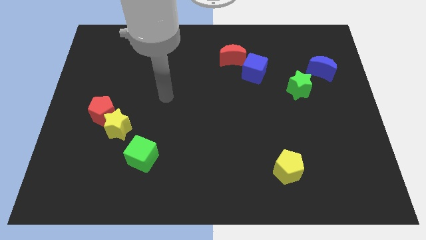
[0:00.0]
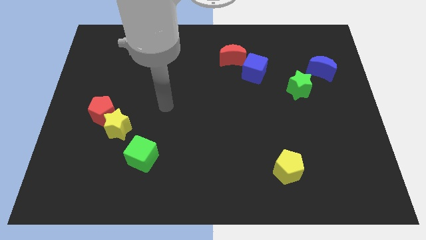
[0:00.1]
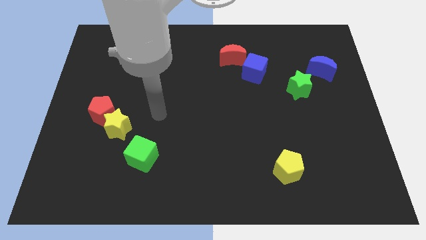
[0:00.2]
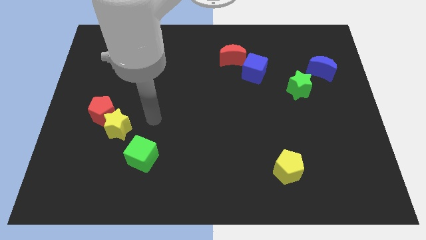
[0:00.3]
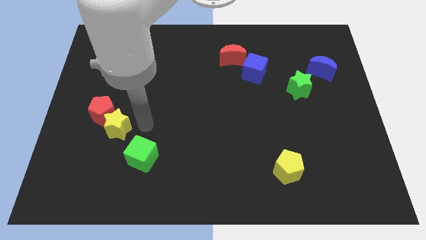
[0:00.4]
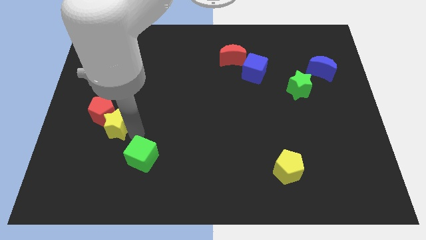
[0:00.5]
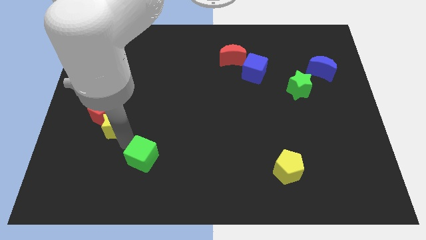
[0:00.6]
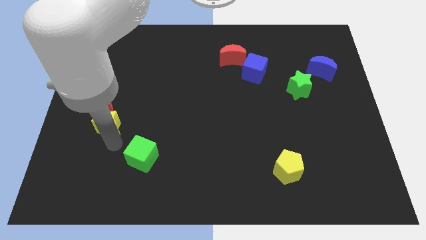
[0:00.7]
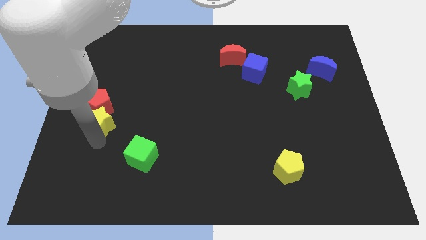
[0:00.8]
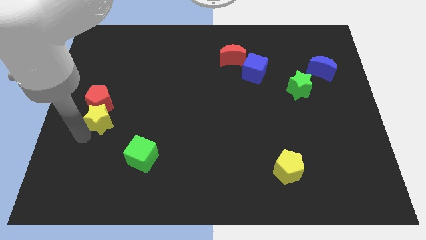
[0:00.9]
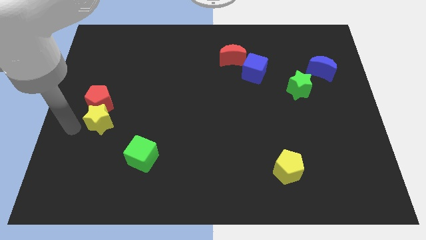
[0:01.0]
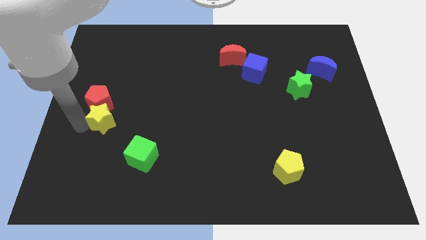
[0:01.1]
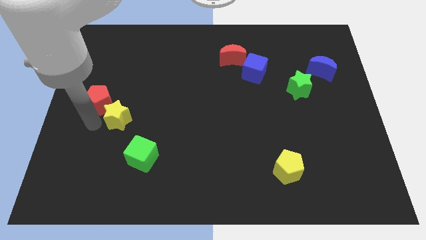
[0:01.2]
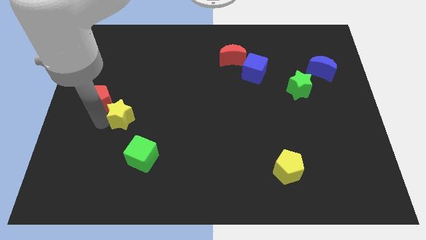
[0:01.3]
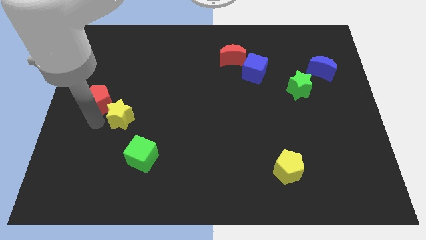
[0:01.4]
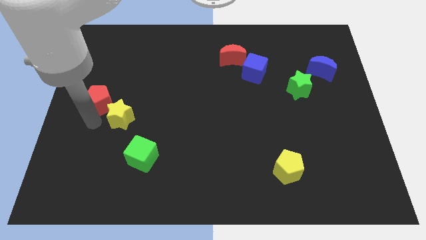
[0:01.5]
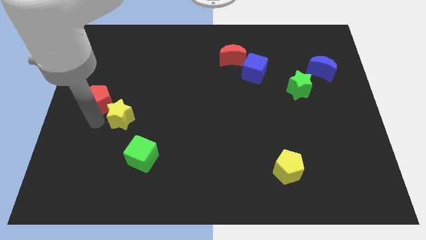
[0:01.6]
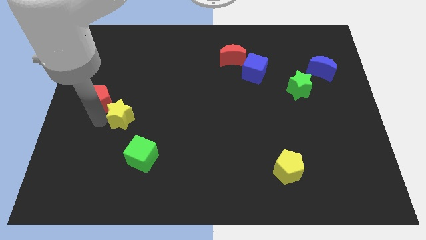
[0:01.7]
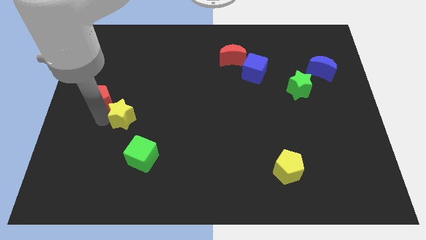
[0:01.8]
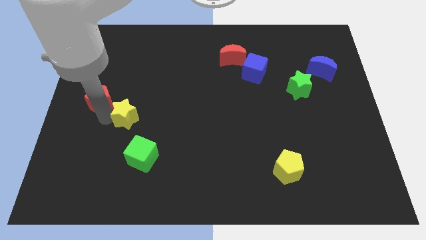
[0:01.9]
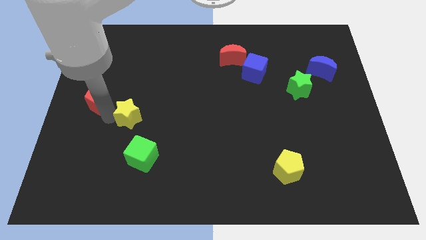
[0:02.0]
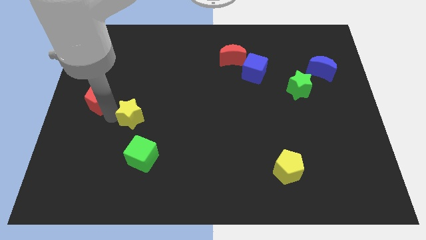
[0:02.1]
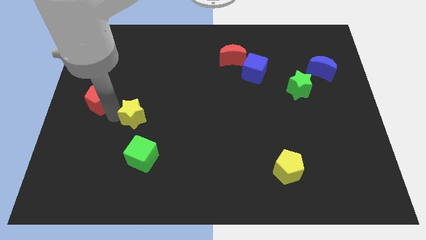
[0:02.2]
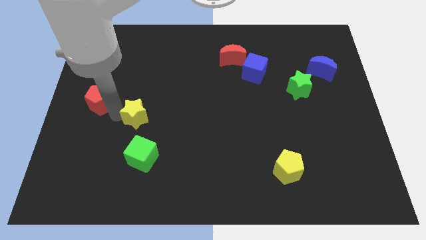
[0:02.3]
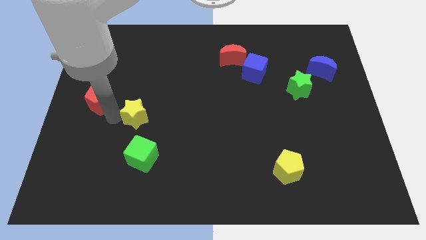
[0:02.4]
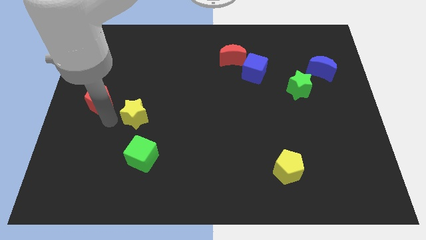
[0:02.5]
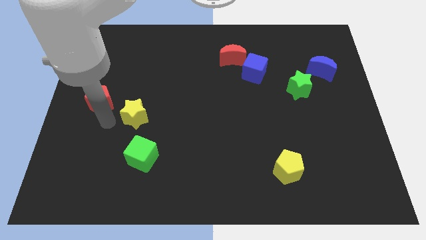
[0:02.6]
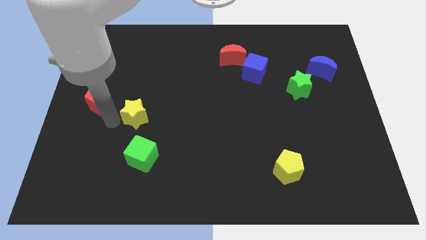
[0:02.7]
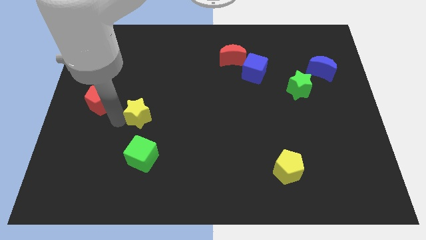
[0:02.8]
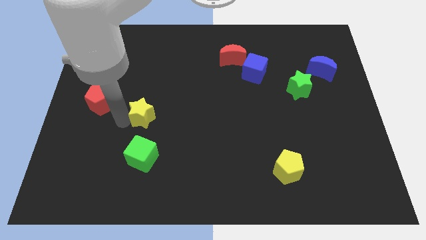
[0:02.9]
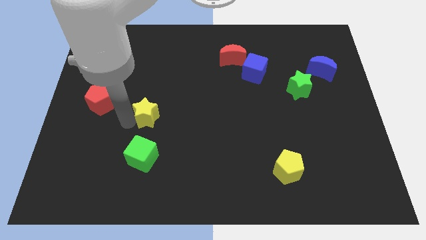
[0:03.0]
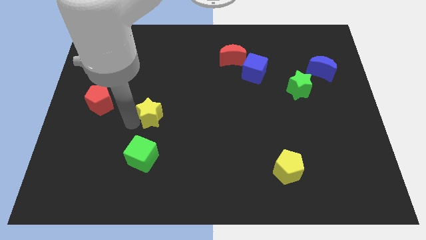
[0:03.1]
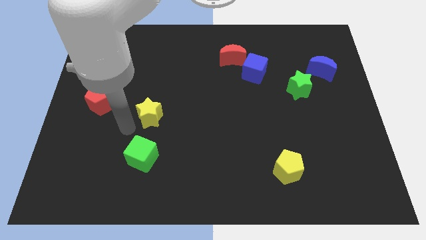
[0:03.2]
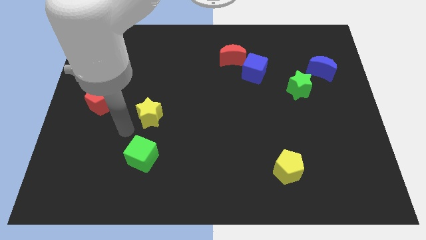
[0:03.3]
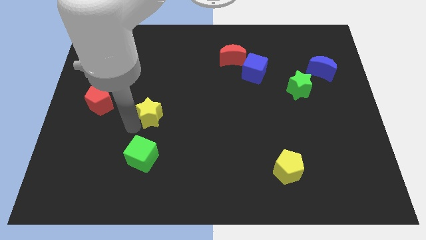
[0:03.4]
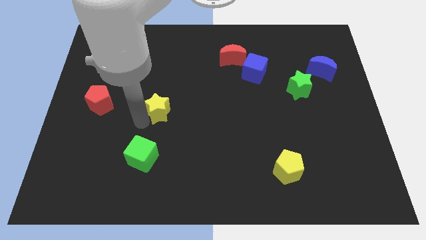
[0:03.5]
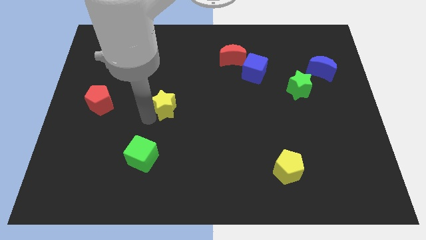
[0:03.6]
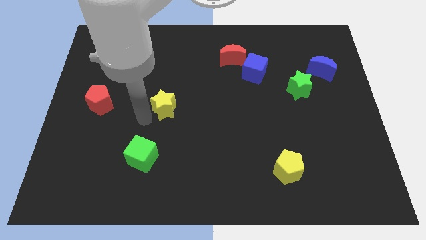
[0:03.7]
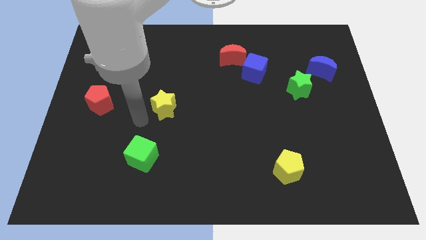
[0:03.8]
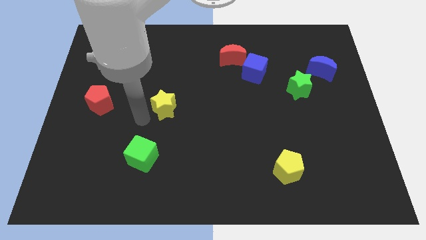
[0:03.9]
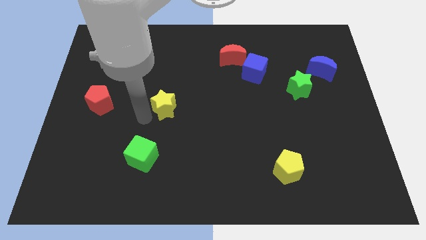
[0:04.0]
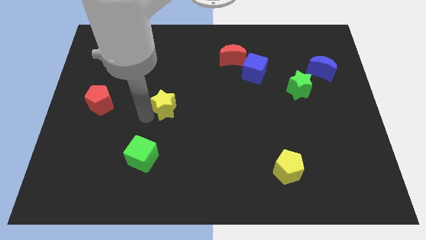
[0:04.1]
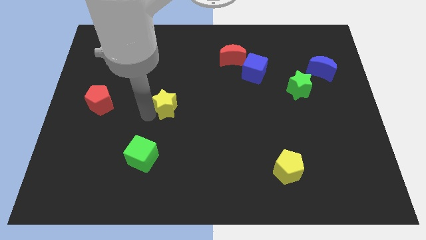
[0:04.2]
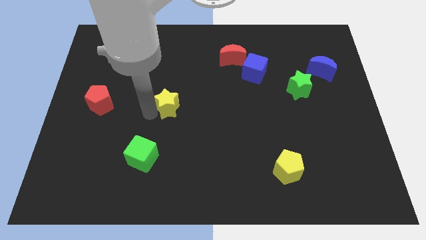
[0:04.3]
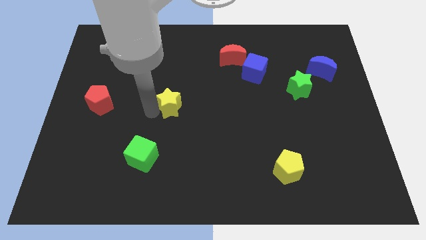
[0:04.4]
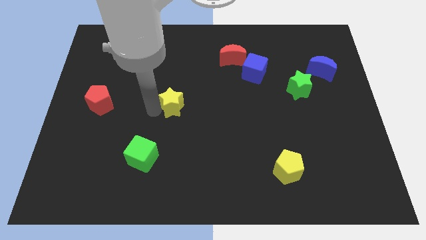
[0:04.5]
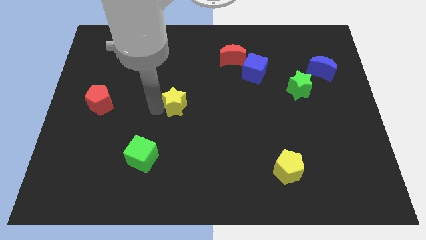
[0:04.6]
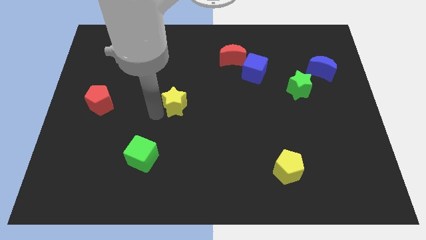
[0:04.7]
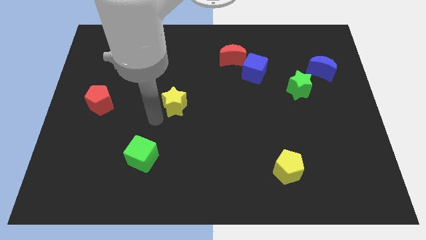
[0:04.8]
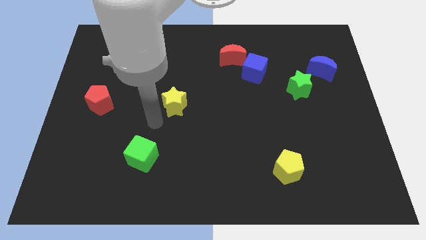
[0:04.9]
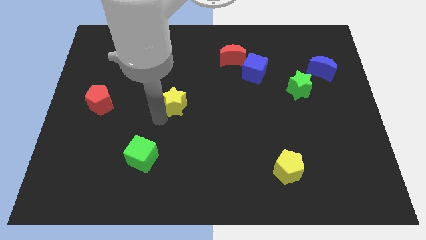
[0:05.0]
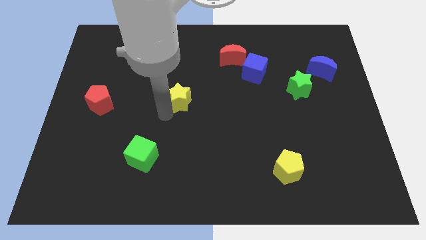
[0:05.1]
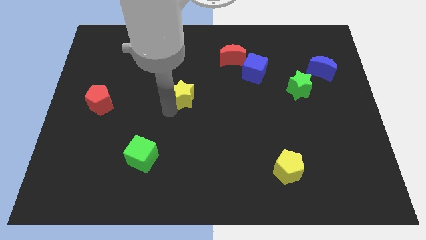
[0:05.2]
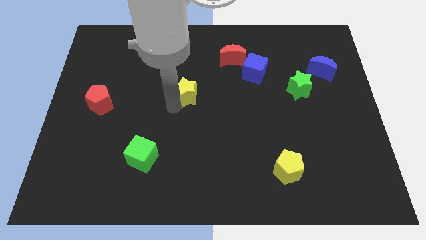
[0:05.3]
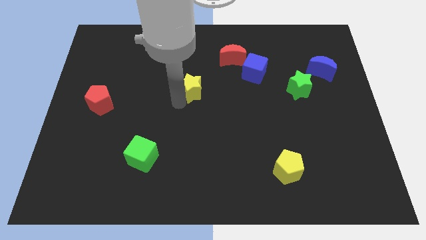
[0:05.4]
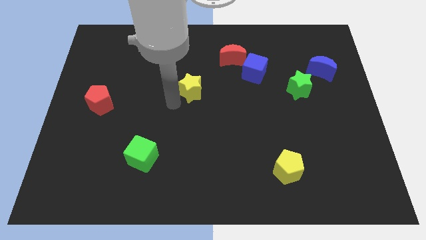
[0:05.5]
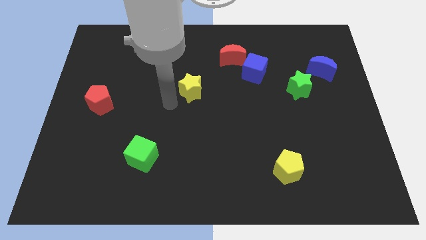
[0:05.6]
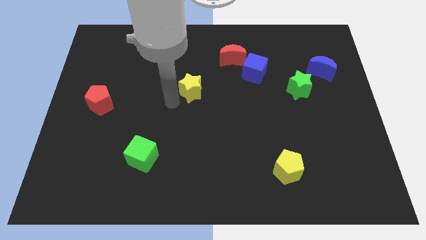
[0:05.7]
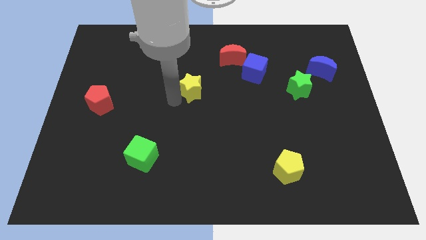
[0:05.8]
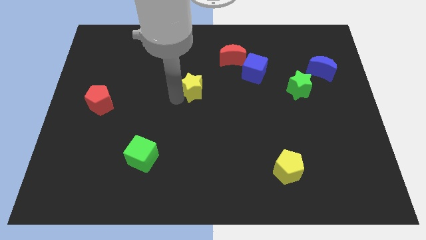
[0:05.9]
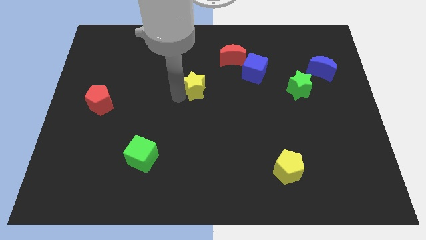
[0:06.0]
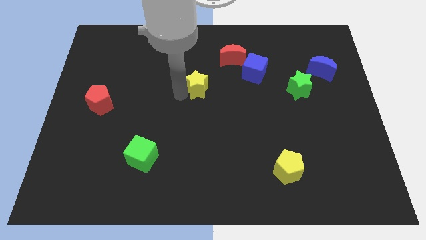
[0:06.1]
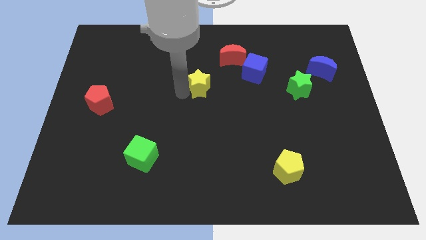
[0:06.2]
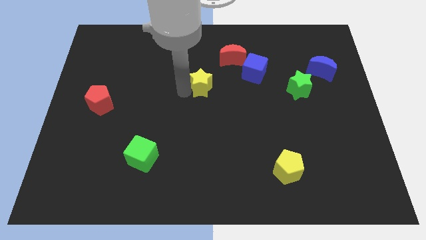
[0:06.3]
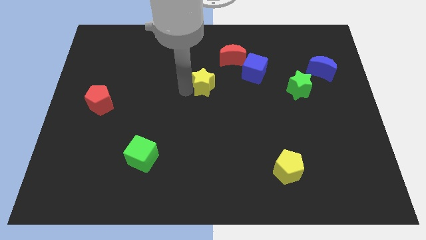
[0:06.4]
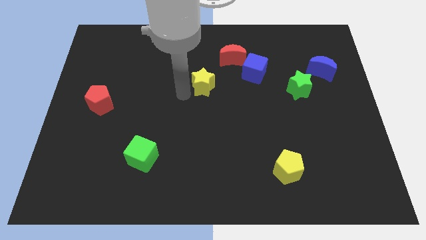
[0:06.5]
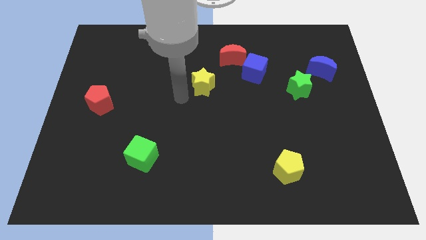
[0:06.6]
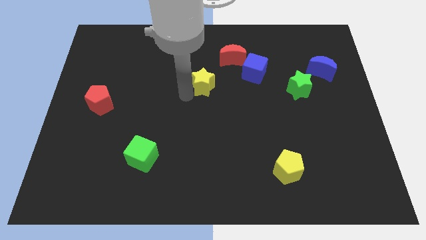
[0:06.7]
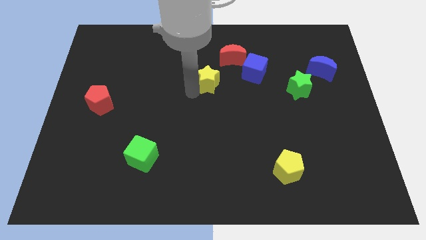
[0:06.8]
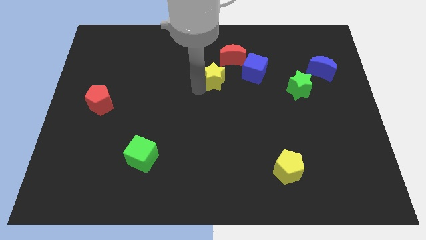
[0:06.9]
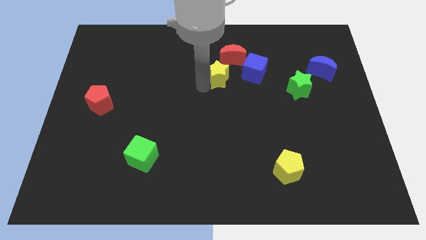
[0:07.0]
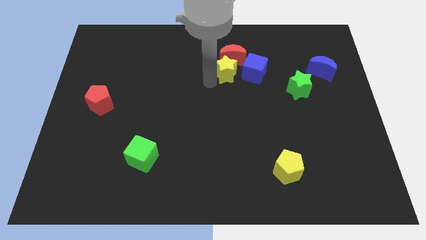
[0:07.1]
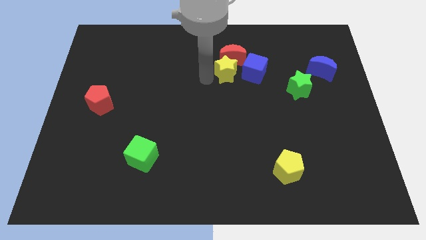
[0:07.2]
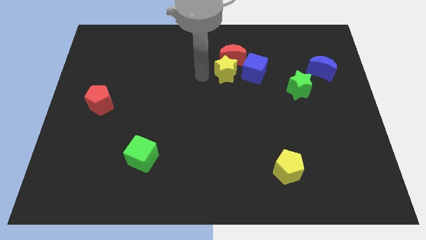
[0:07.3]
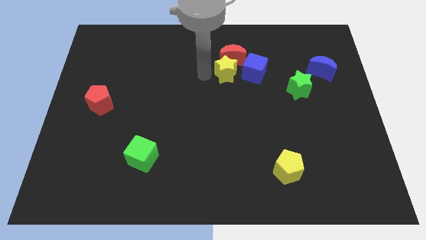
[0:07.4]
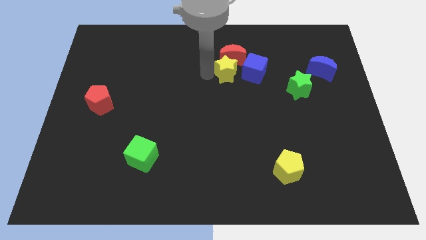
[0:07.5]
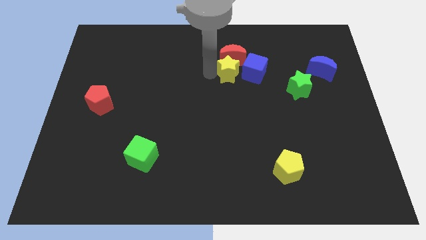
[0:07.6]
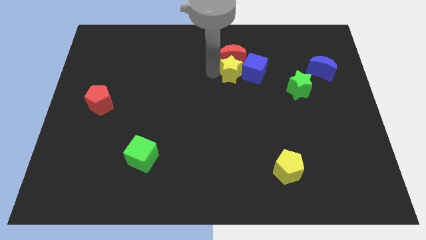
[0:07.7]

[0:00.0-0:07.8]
push the yellow star next to the blue cube

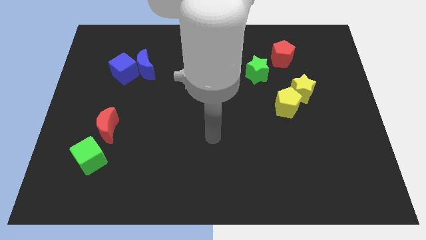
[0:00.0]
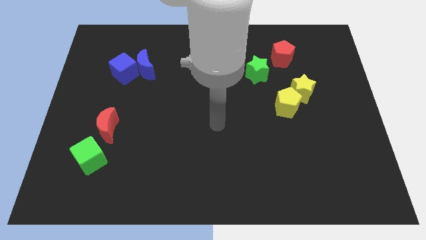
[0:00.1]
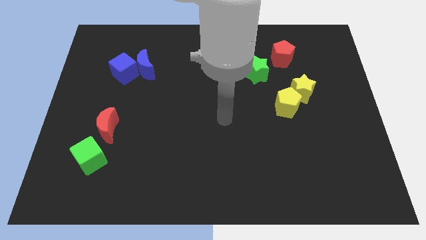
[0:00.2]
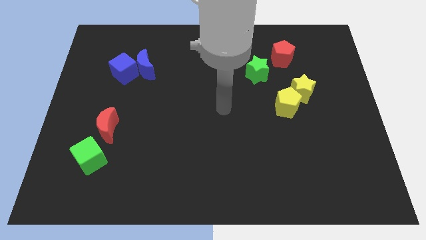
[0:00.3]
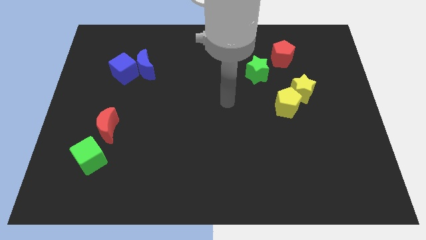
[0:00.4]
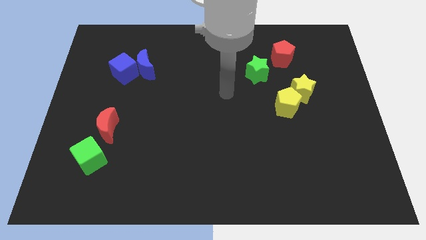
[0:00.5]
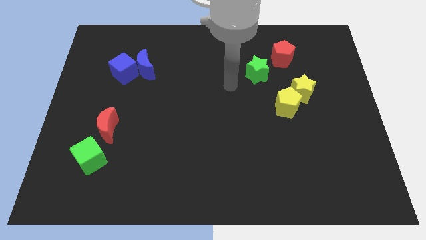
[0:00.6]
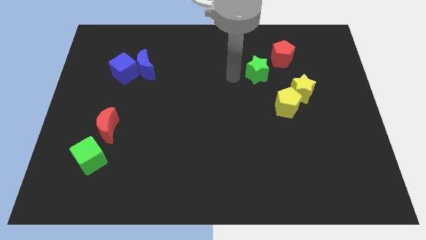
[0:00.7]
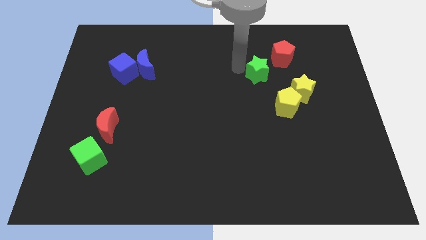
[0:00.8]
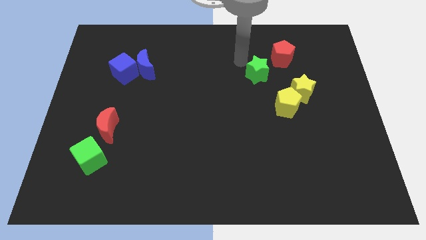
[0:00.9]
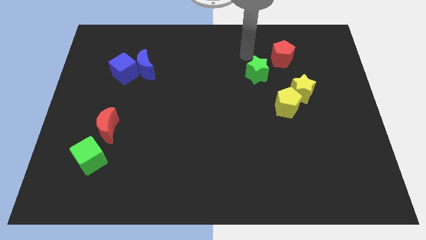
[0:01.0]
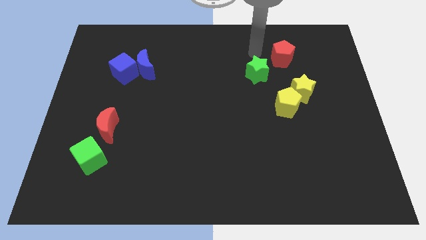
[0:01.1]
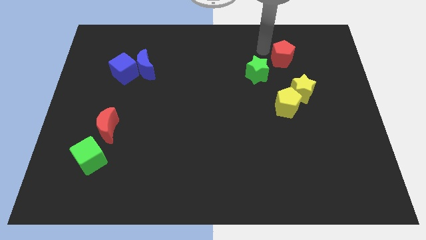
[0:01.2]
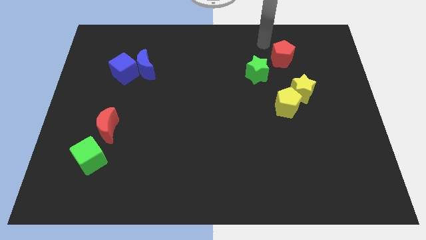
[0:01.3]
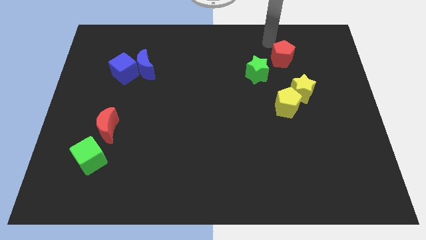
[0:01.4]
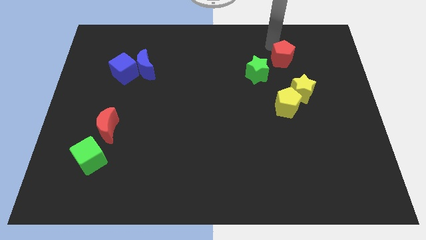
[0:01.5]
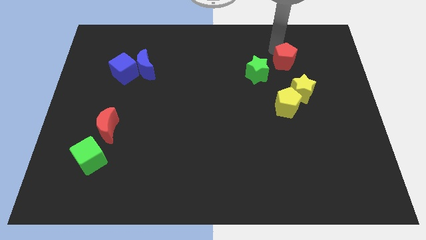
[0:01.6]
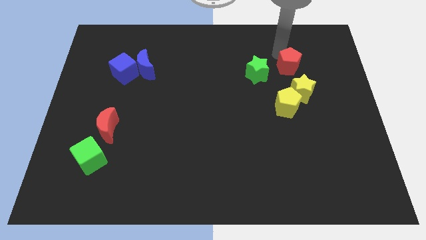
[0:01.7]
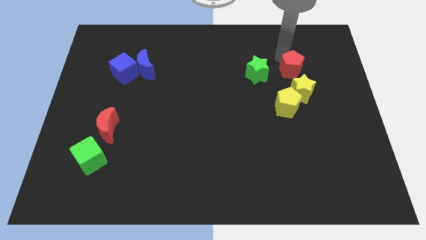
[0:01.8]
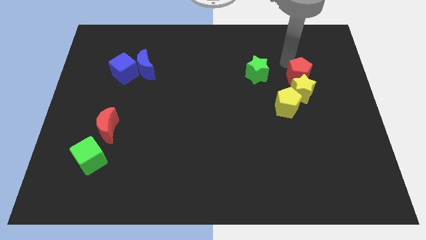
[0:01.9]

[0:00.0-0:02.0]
slide the red pentagon towards the yellow star
